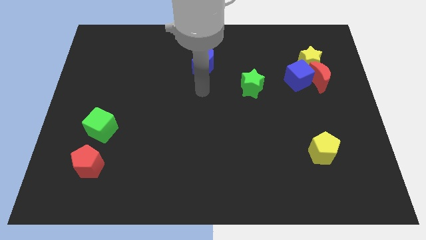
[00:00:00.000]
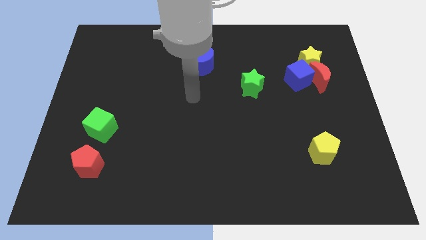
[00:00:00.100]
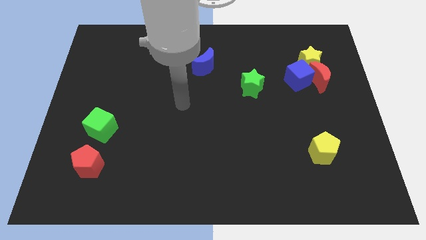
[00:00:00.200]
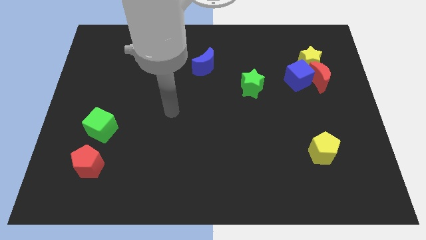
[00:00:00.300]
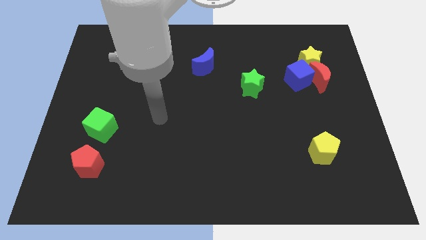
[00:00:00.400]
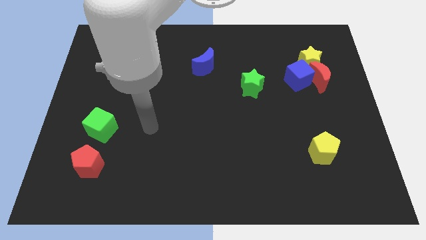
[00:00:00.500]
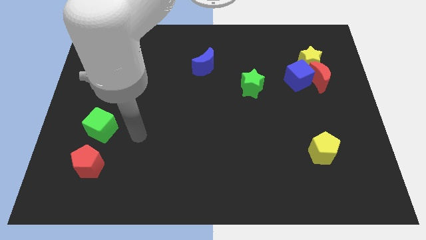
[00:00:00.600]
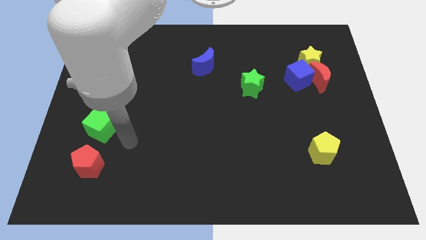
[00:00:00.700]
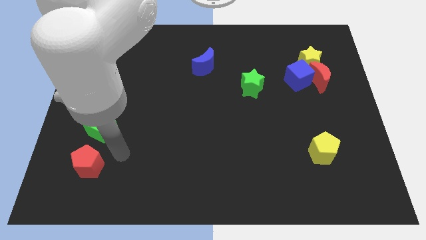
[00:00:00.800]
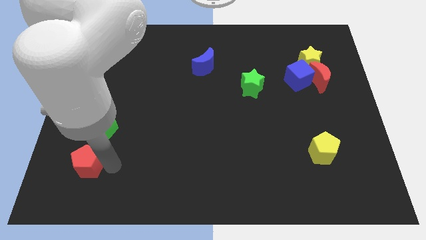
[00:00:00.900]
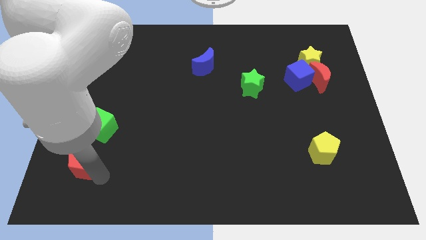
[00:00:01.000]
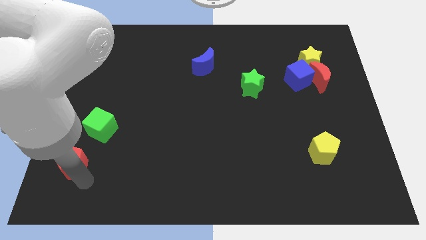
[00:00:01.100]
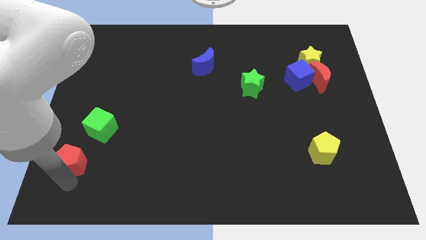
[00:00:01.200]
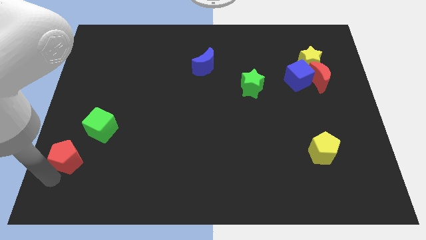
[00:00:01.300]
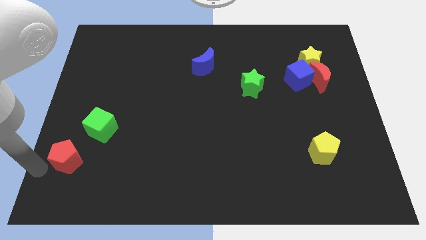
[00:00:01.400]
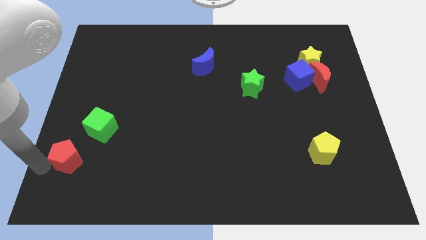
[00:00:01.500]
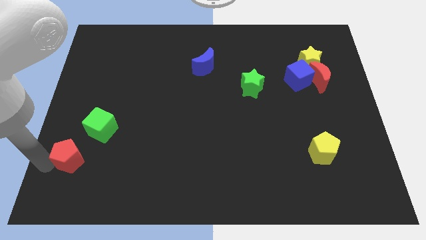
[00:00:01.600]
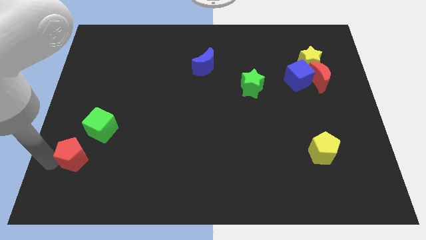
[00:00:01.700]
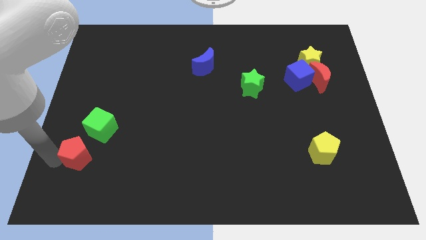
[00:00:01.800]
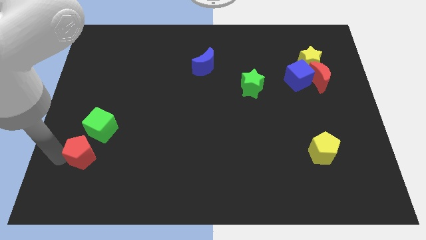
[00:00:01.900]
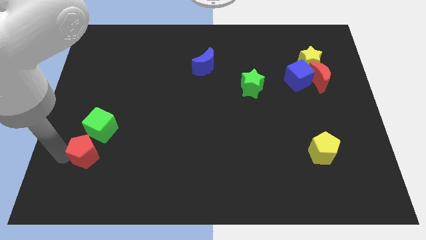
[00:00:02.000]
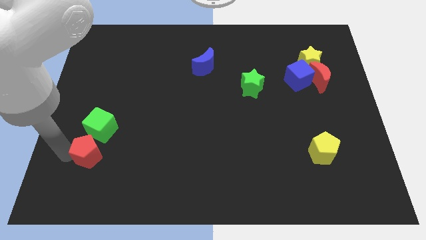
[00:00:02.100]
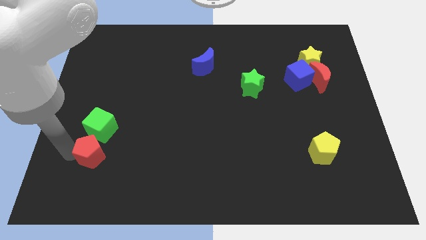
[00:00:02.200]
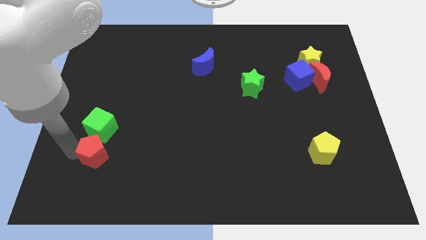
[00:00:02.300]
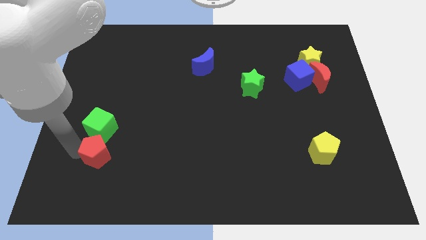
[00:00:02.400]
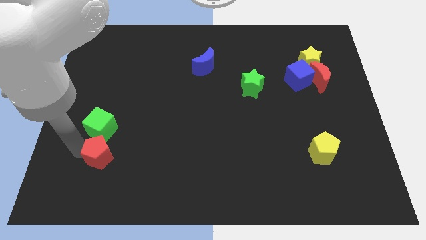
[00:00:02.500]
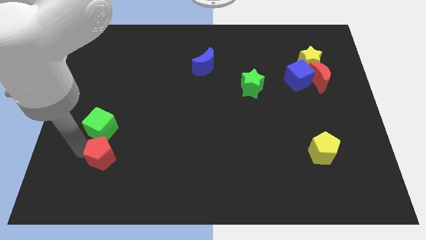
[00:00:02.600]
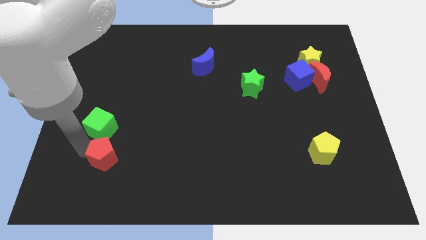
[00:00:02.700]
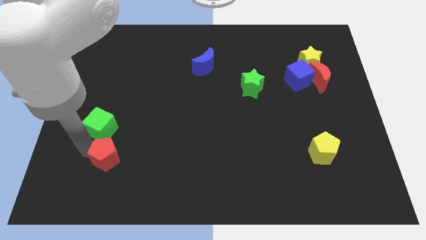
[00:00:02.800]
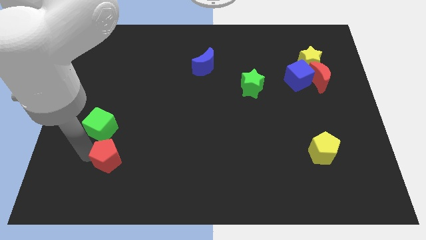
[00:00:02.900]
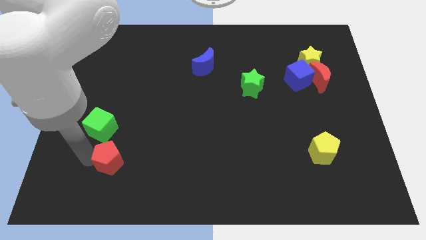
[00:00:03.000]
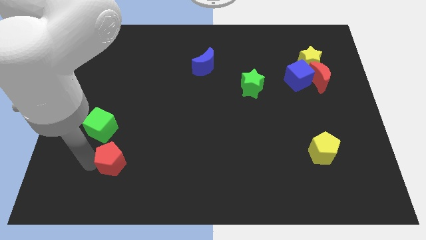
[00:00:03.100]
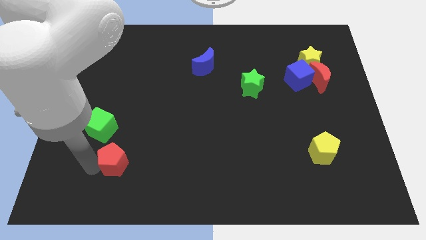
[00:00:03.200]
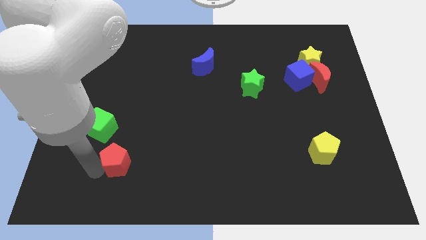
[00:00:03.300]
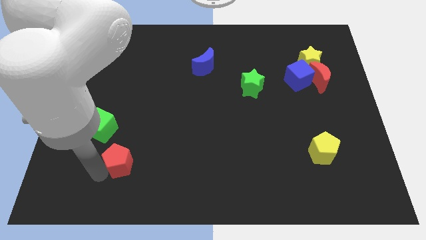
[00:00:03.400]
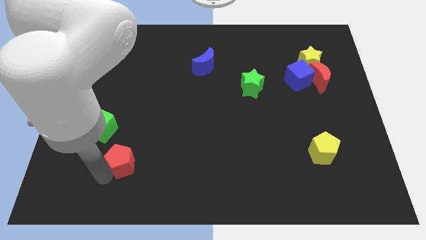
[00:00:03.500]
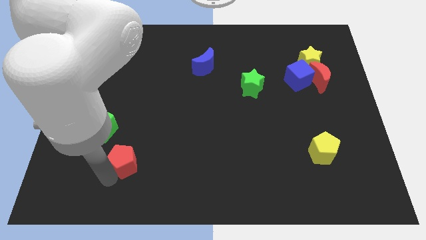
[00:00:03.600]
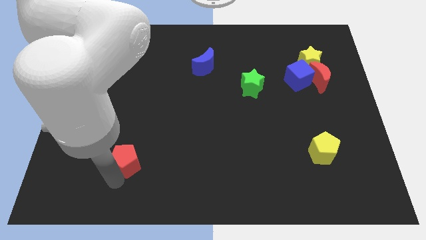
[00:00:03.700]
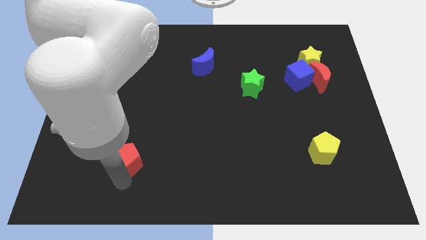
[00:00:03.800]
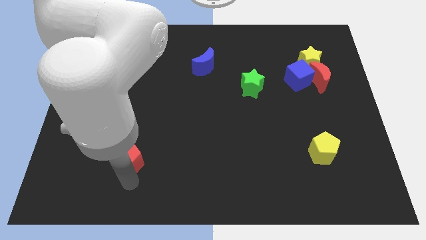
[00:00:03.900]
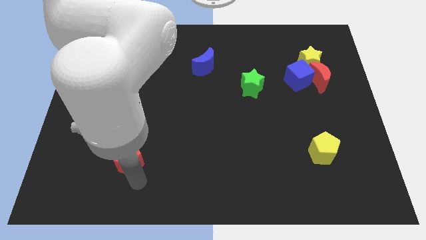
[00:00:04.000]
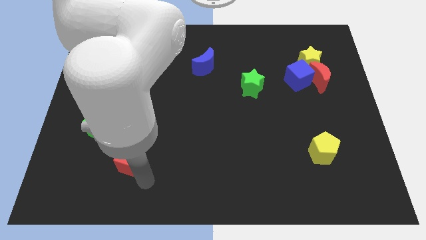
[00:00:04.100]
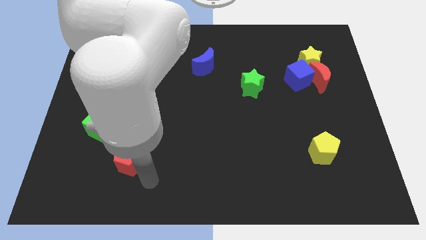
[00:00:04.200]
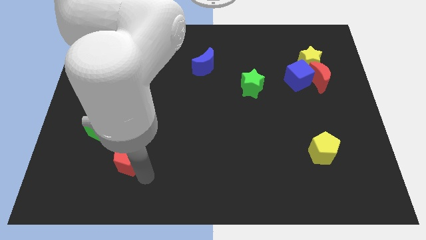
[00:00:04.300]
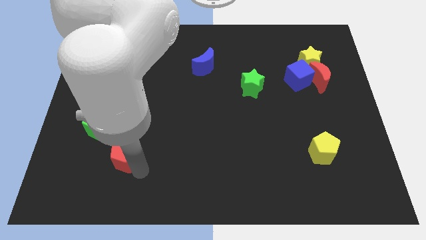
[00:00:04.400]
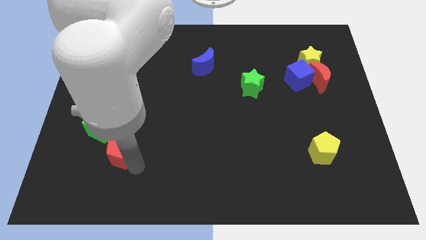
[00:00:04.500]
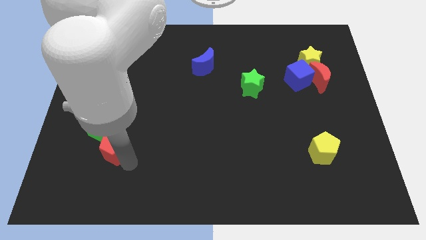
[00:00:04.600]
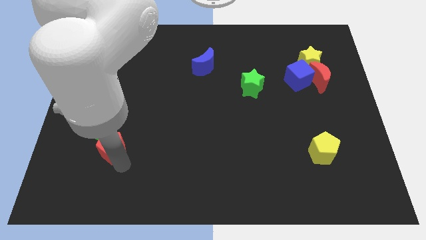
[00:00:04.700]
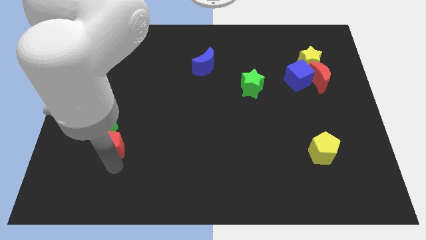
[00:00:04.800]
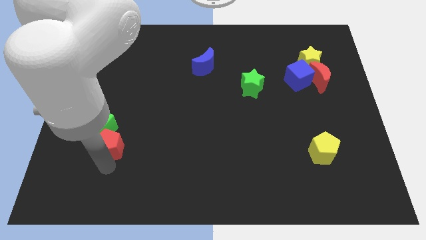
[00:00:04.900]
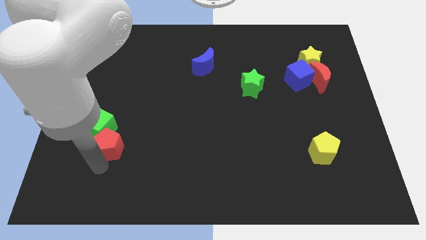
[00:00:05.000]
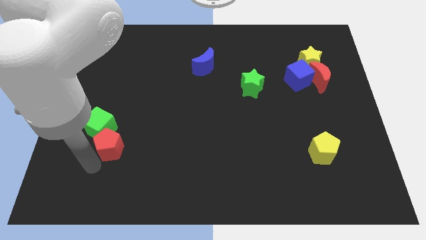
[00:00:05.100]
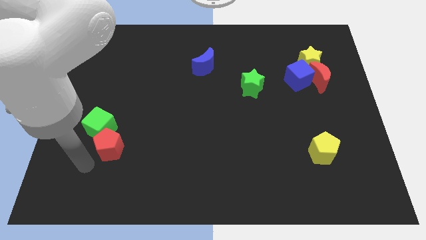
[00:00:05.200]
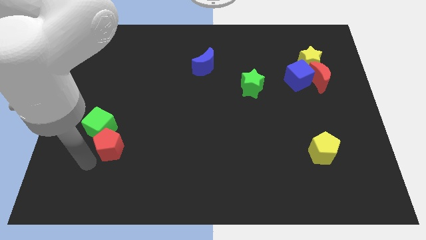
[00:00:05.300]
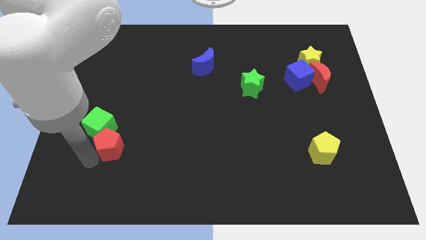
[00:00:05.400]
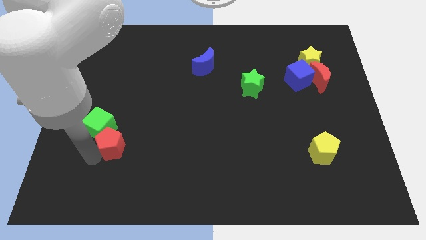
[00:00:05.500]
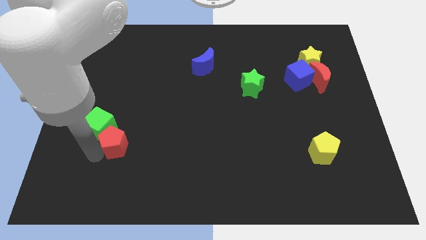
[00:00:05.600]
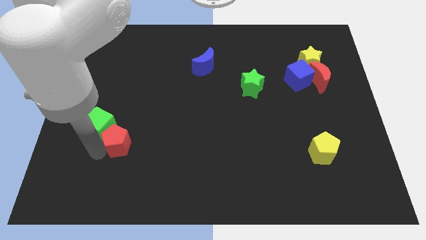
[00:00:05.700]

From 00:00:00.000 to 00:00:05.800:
move the red pentagon slightly diagonally up and right

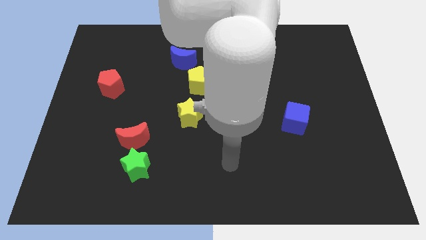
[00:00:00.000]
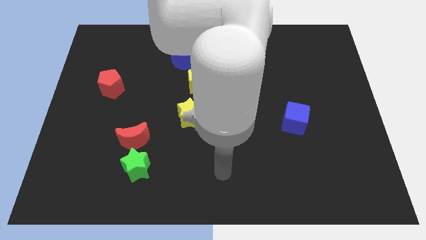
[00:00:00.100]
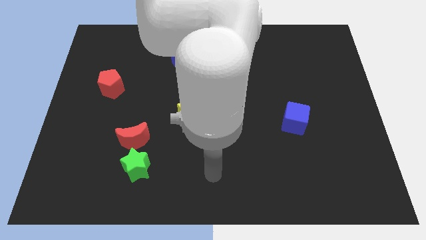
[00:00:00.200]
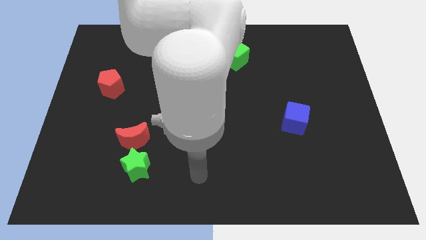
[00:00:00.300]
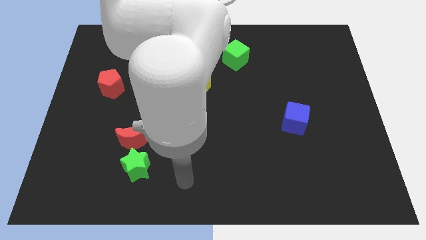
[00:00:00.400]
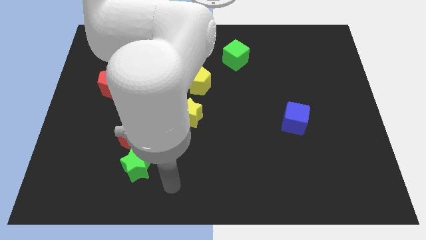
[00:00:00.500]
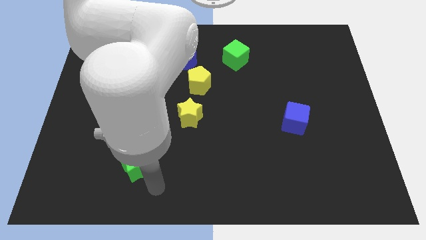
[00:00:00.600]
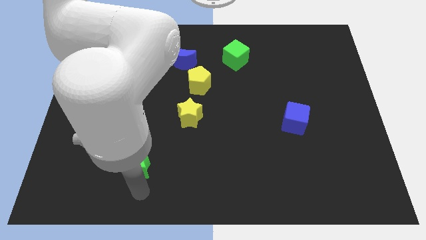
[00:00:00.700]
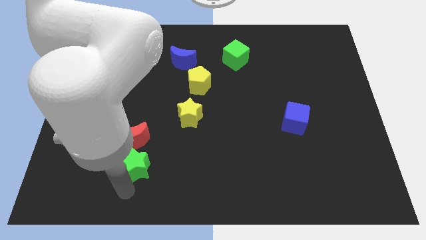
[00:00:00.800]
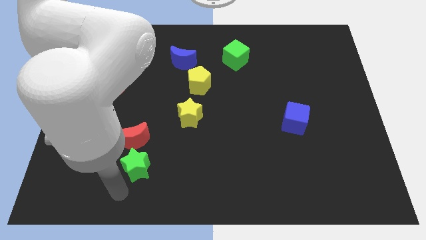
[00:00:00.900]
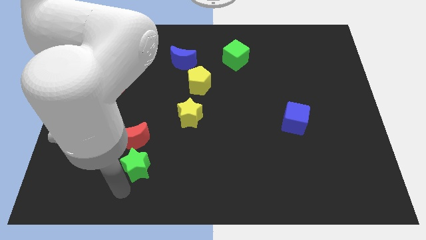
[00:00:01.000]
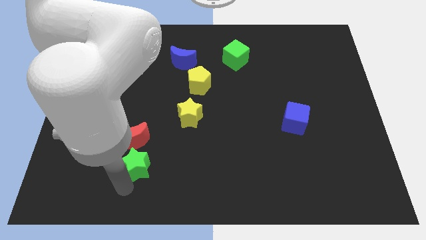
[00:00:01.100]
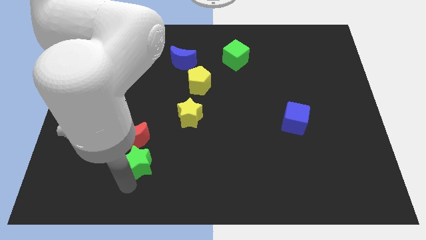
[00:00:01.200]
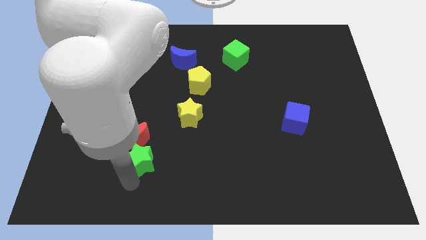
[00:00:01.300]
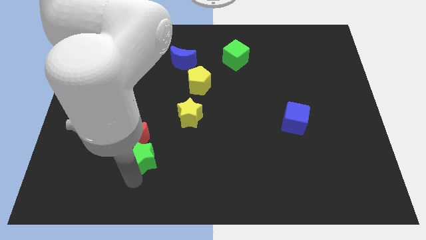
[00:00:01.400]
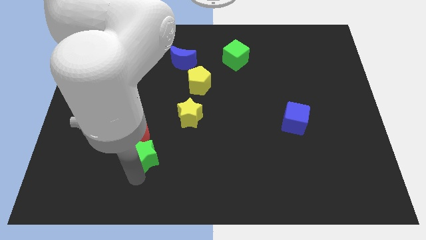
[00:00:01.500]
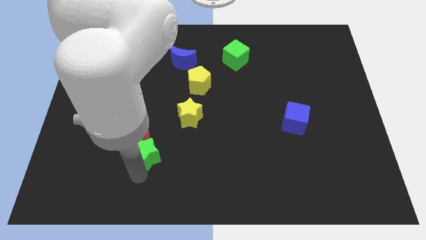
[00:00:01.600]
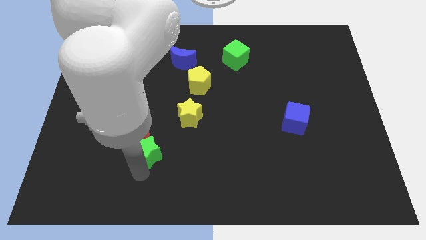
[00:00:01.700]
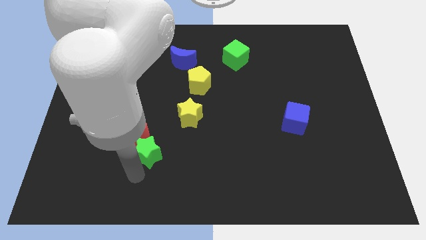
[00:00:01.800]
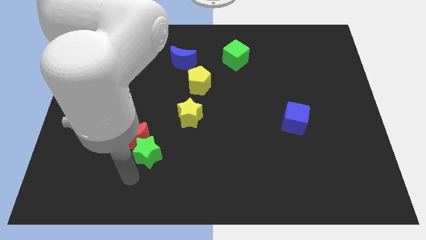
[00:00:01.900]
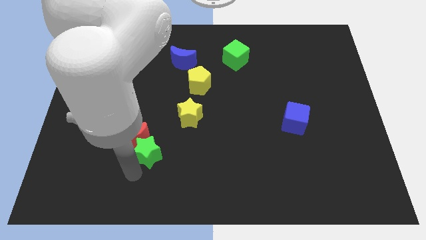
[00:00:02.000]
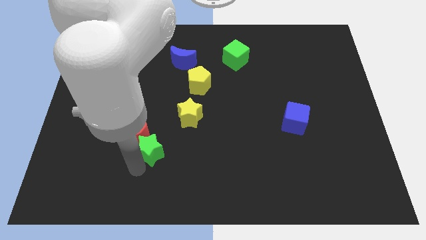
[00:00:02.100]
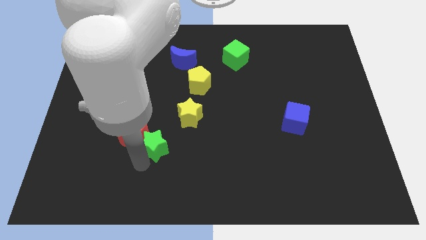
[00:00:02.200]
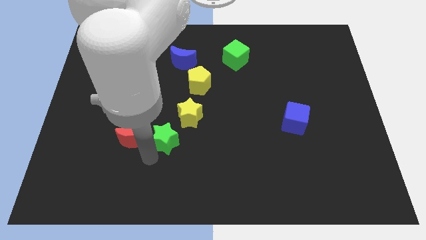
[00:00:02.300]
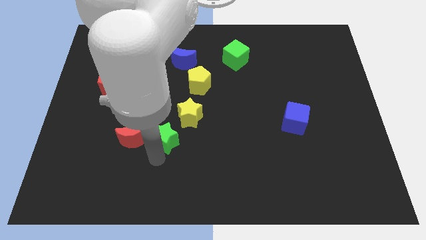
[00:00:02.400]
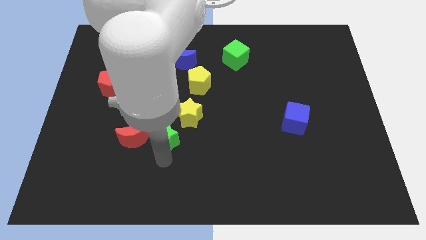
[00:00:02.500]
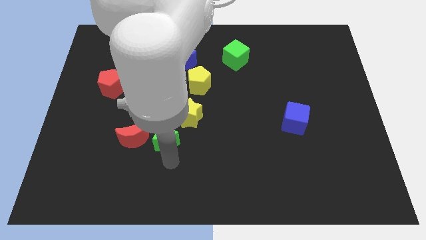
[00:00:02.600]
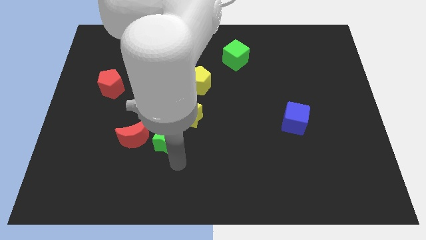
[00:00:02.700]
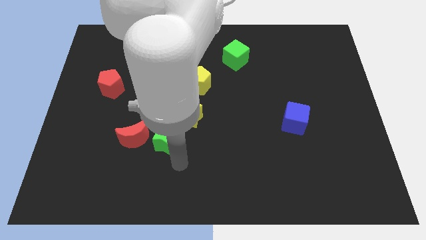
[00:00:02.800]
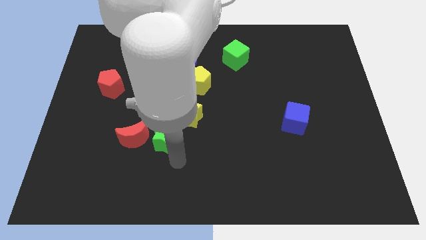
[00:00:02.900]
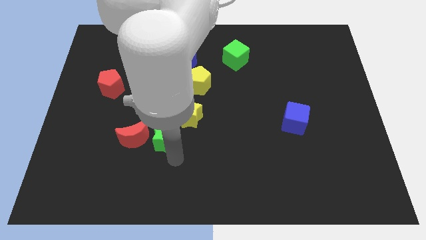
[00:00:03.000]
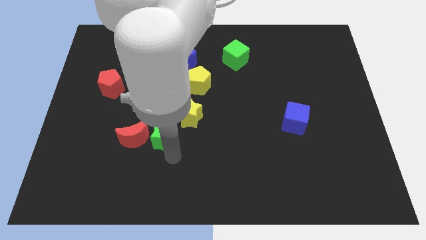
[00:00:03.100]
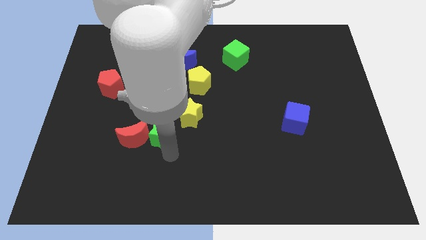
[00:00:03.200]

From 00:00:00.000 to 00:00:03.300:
slightly push the green star up
